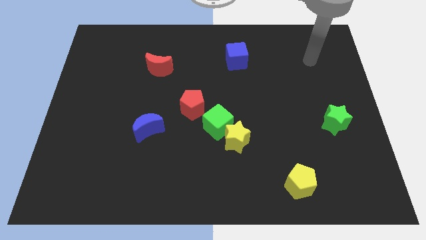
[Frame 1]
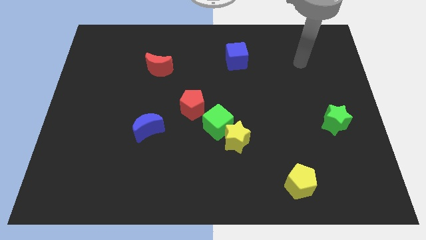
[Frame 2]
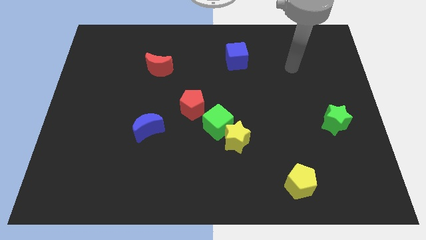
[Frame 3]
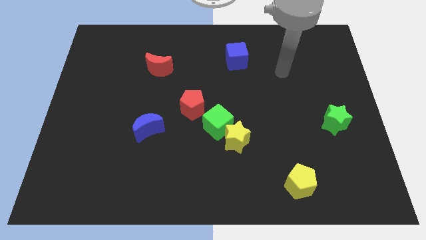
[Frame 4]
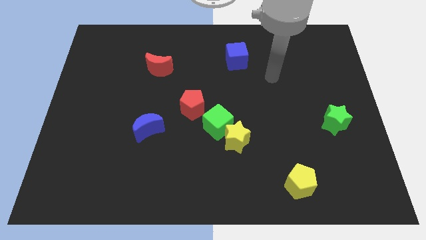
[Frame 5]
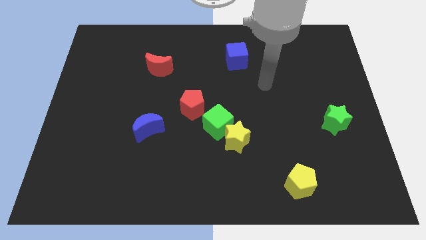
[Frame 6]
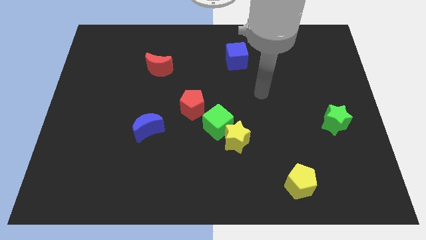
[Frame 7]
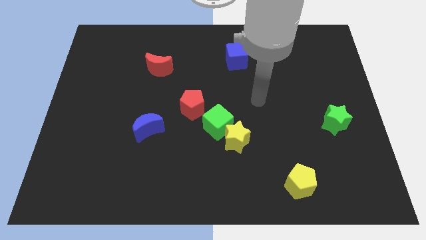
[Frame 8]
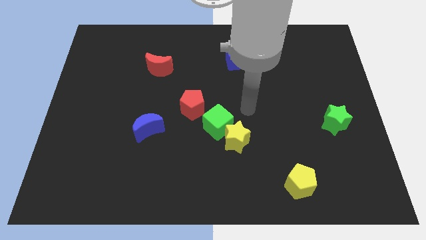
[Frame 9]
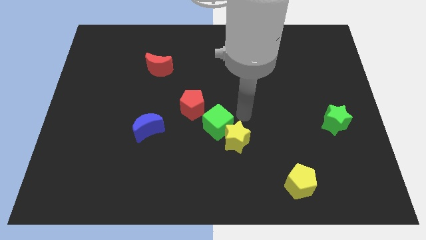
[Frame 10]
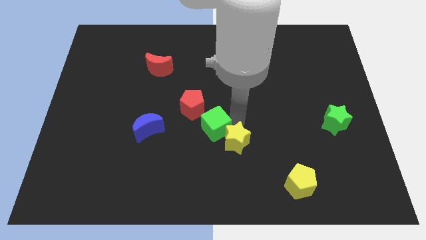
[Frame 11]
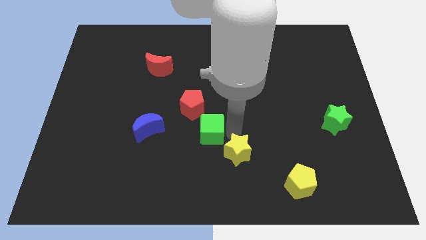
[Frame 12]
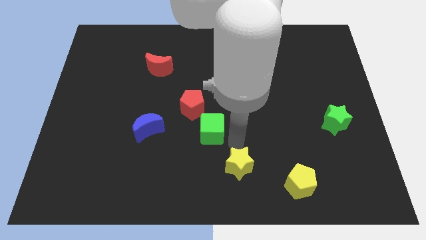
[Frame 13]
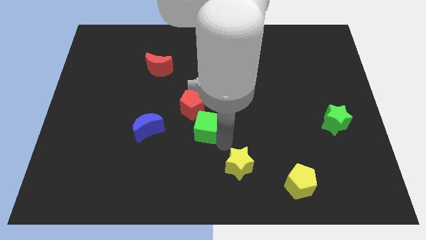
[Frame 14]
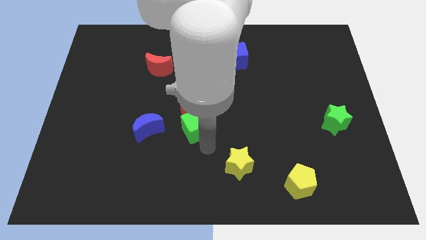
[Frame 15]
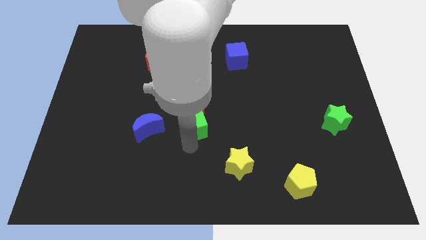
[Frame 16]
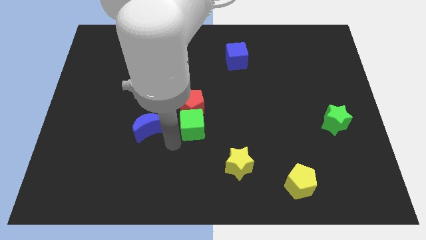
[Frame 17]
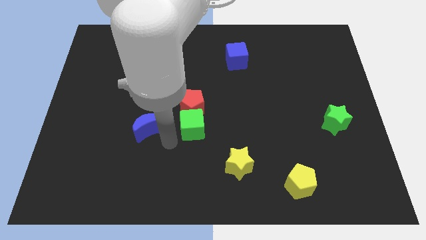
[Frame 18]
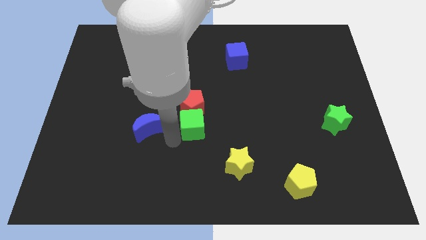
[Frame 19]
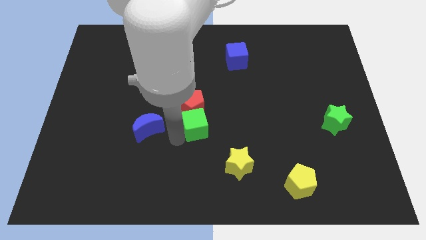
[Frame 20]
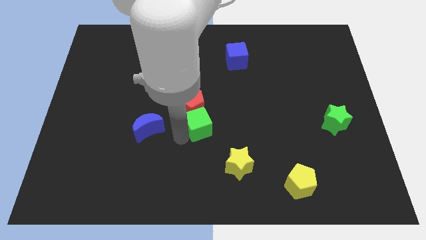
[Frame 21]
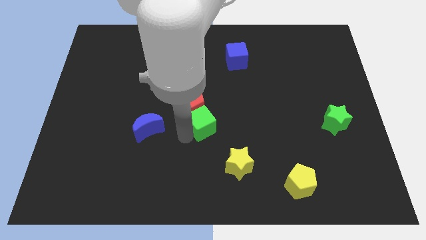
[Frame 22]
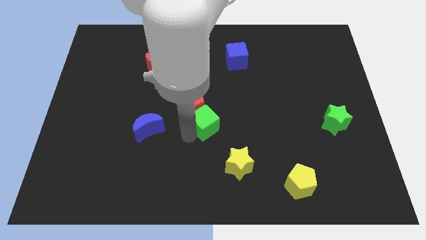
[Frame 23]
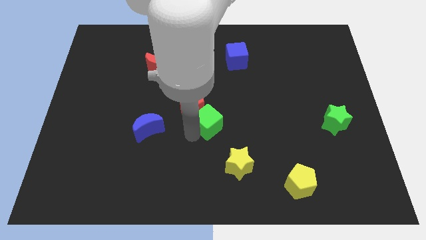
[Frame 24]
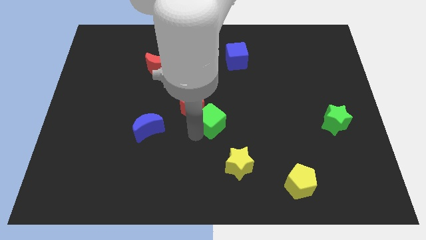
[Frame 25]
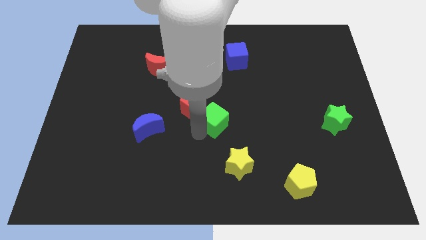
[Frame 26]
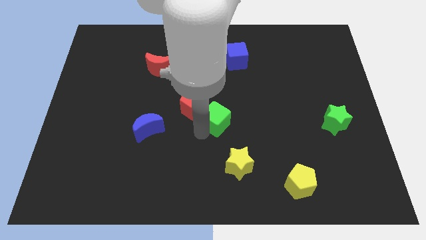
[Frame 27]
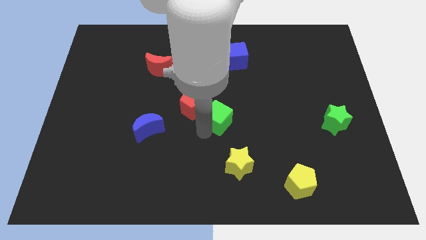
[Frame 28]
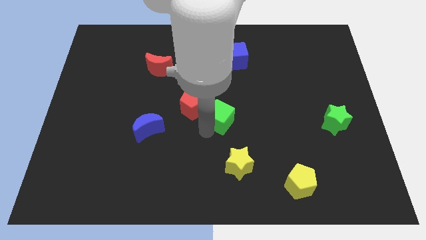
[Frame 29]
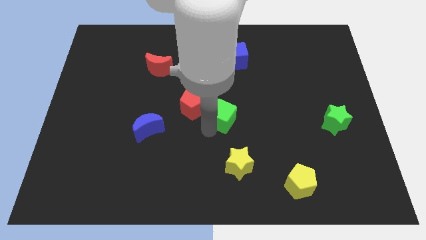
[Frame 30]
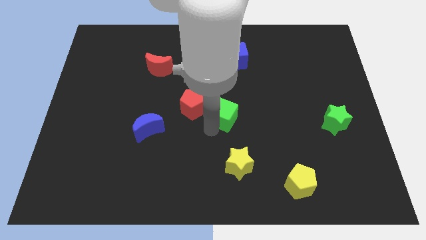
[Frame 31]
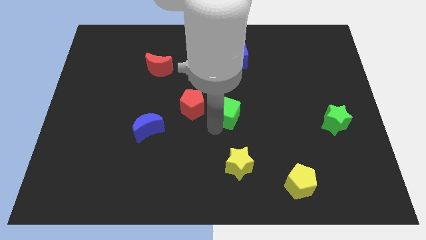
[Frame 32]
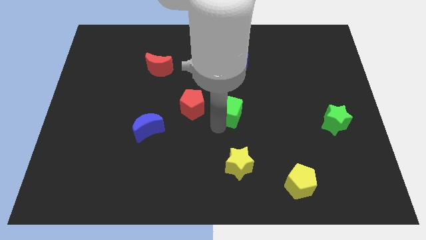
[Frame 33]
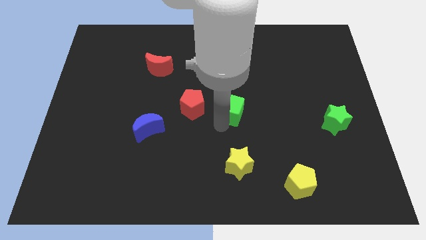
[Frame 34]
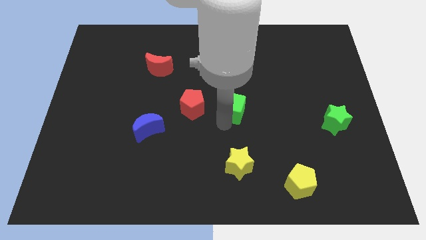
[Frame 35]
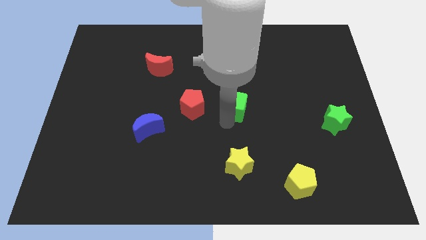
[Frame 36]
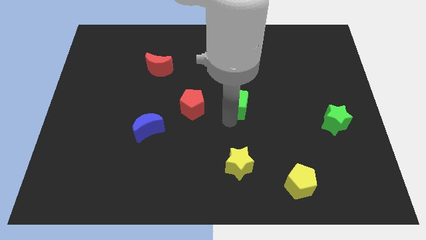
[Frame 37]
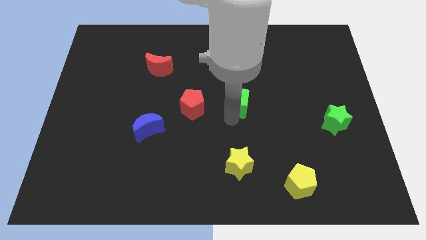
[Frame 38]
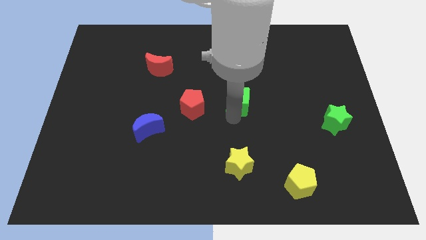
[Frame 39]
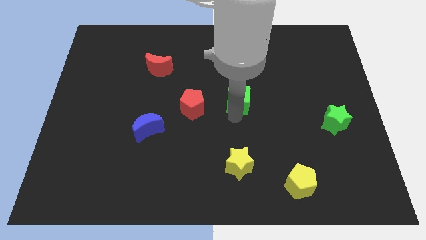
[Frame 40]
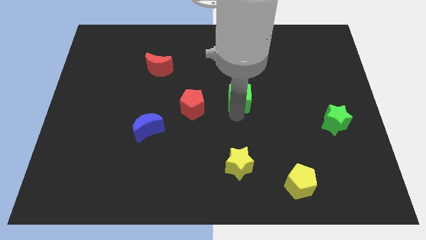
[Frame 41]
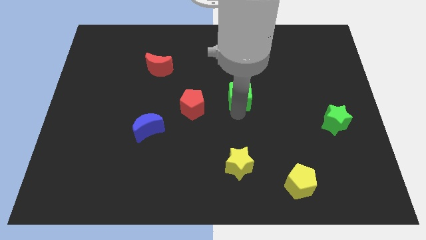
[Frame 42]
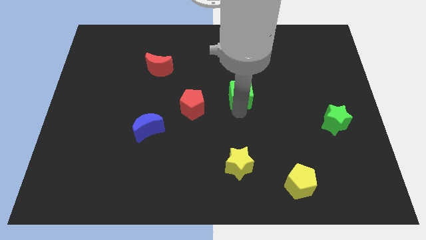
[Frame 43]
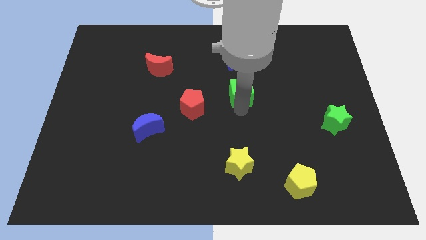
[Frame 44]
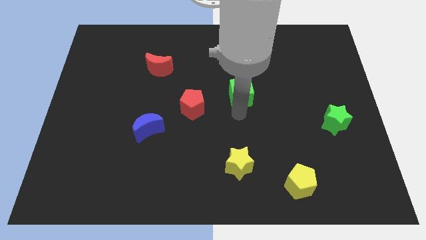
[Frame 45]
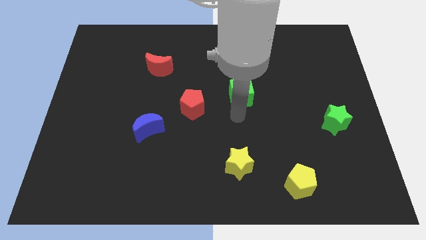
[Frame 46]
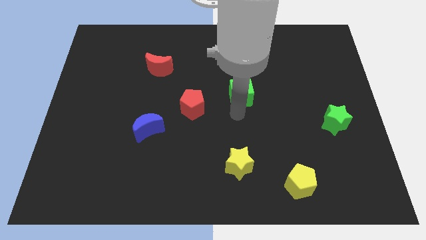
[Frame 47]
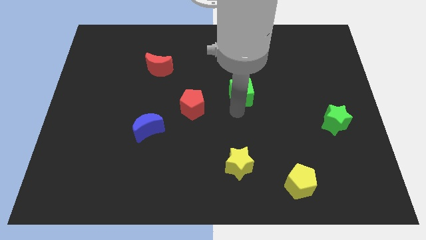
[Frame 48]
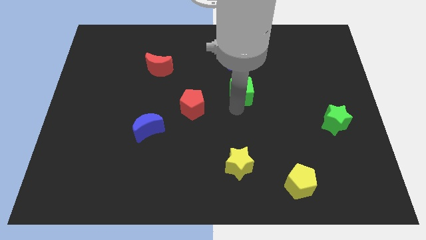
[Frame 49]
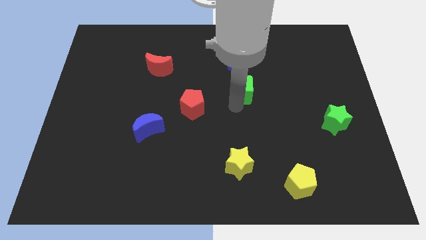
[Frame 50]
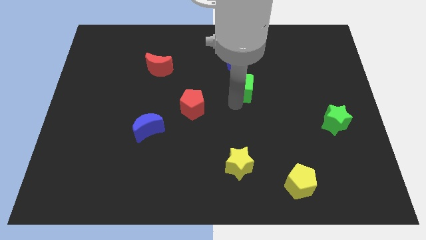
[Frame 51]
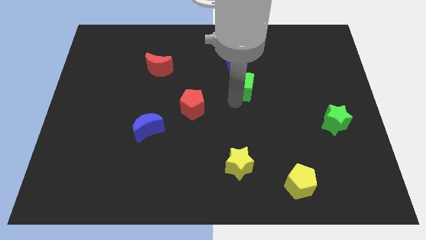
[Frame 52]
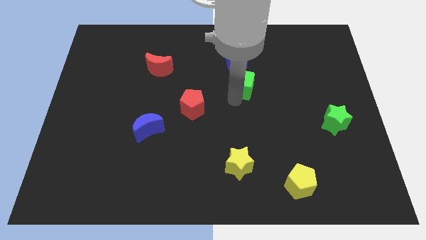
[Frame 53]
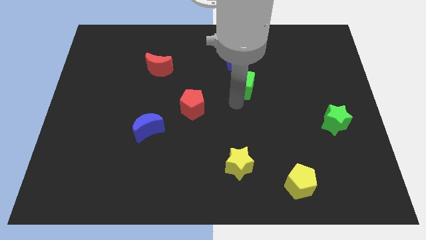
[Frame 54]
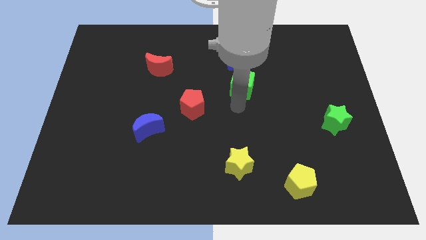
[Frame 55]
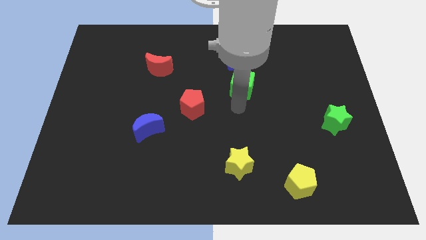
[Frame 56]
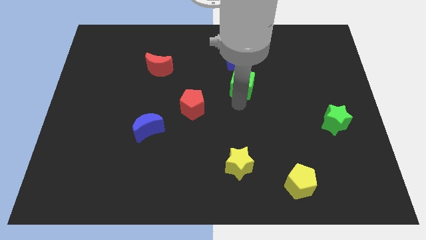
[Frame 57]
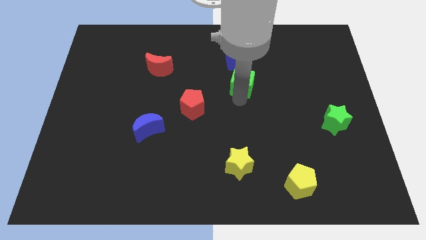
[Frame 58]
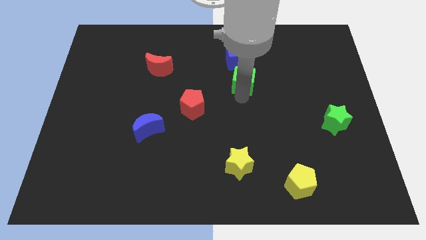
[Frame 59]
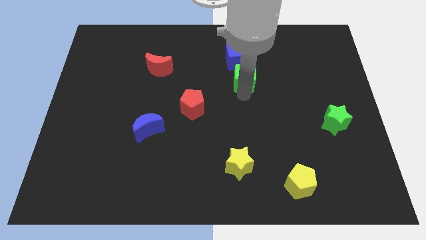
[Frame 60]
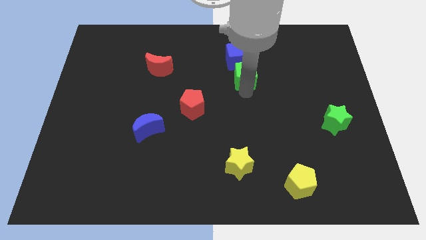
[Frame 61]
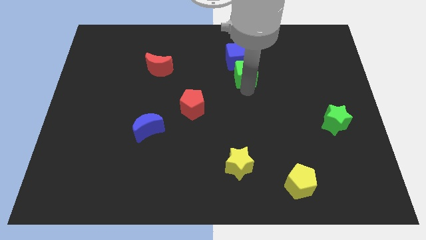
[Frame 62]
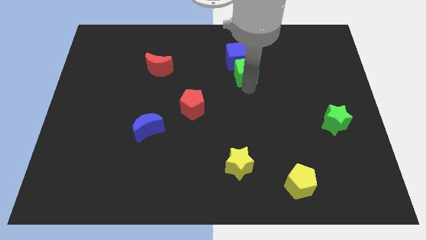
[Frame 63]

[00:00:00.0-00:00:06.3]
slide the green cube close to the blue cube

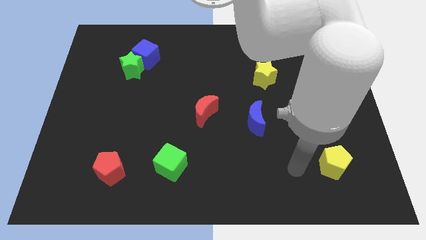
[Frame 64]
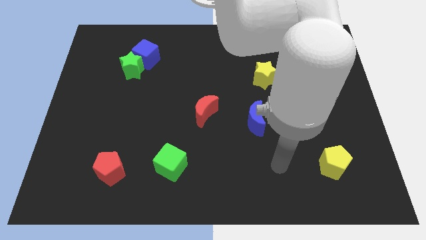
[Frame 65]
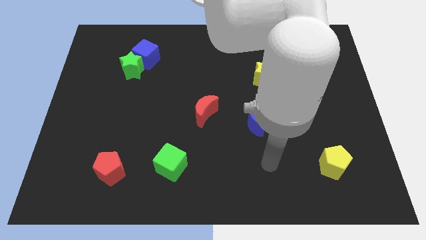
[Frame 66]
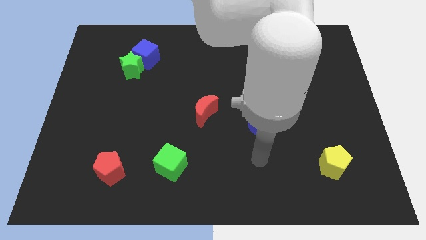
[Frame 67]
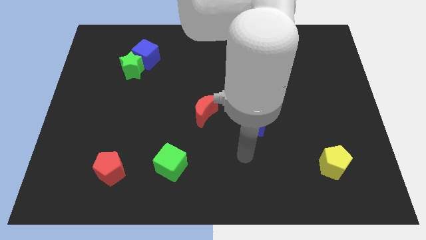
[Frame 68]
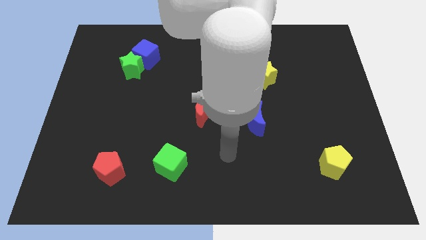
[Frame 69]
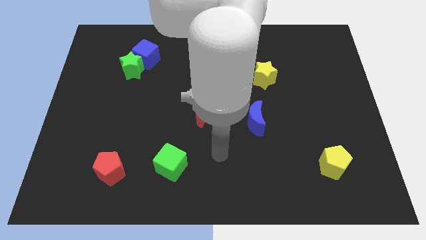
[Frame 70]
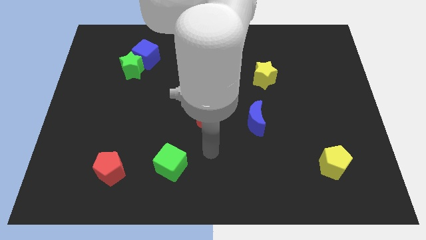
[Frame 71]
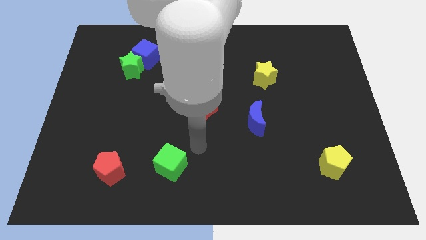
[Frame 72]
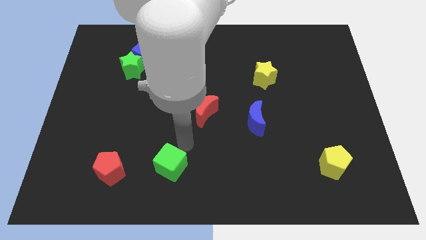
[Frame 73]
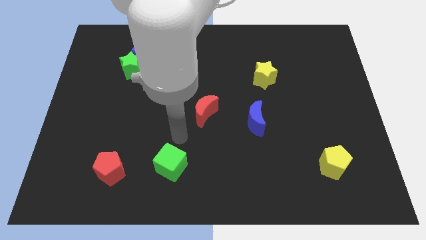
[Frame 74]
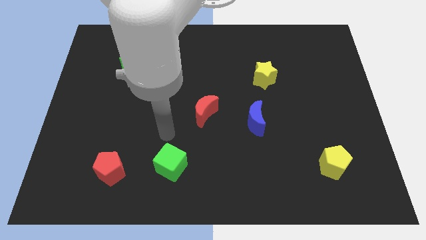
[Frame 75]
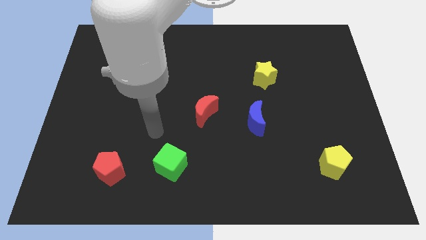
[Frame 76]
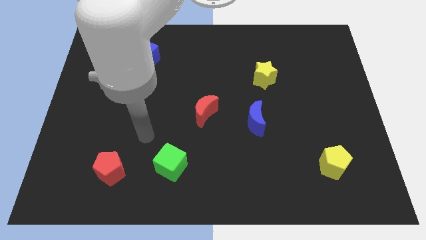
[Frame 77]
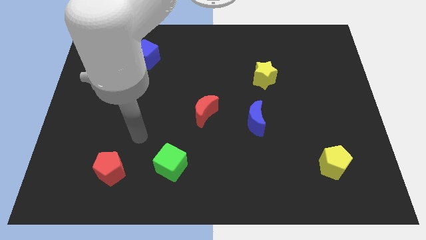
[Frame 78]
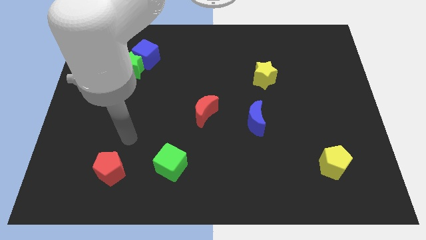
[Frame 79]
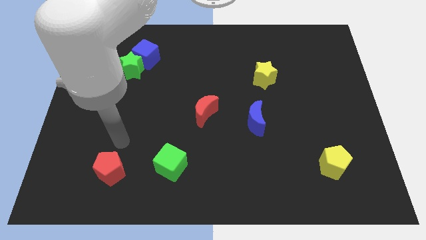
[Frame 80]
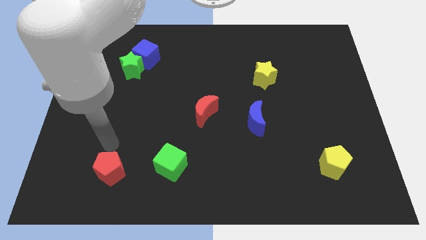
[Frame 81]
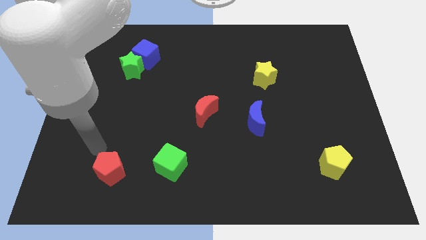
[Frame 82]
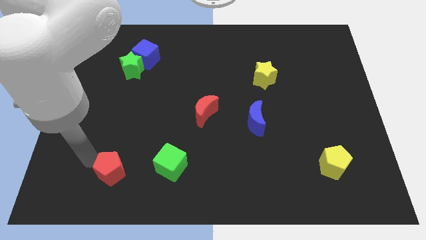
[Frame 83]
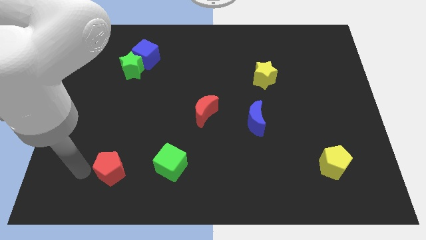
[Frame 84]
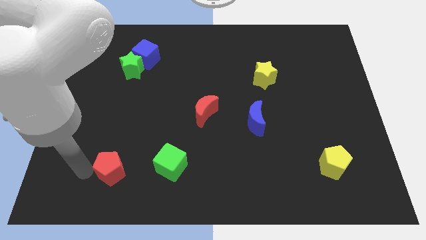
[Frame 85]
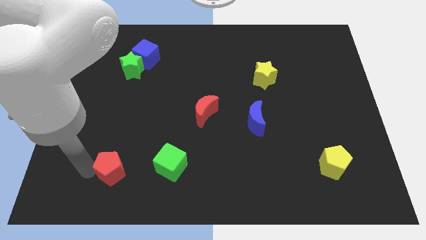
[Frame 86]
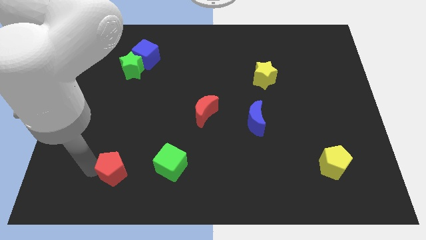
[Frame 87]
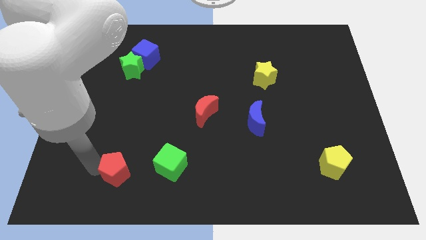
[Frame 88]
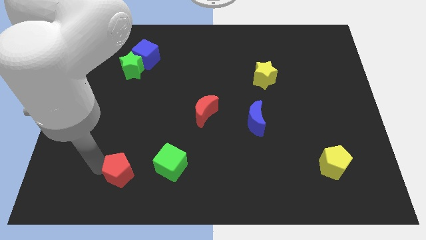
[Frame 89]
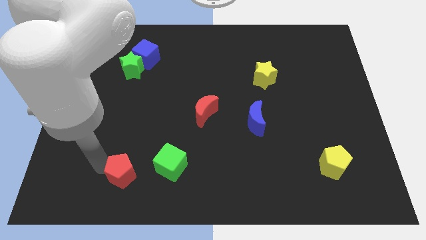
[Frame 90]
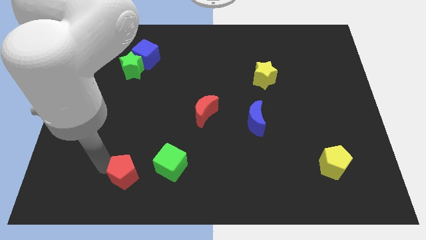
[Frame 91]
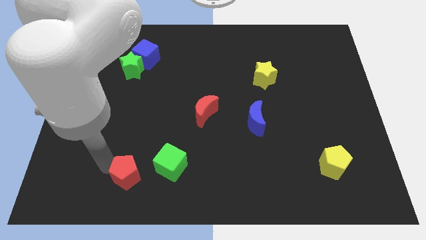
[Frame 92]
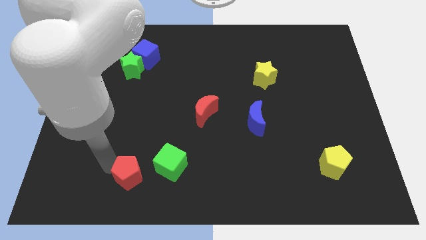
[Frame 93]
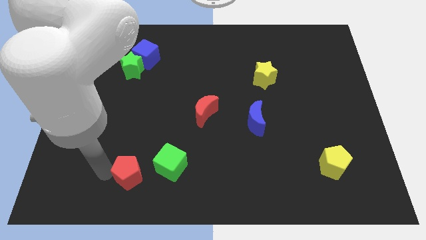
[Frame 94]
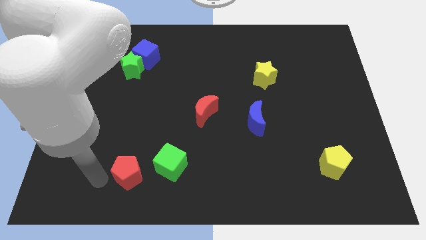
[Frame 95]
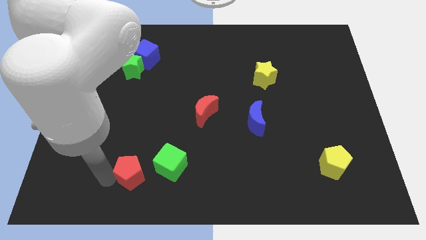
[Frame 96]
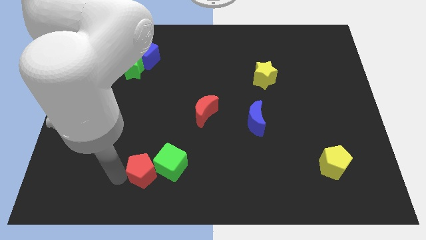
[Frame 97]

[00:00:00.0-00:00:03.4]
move the red pentagon to the green cube
